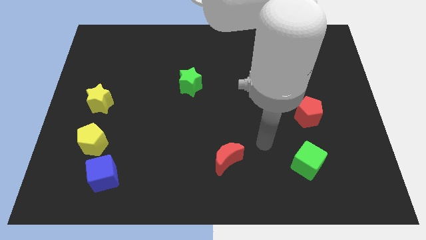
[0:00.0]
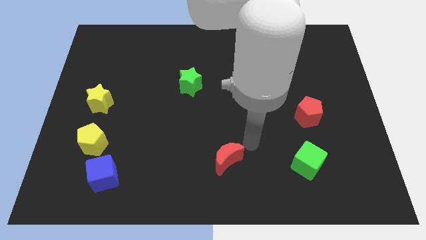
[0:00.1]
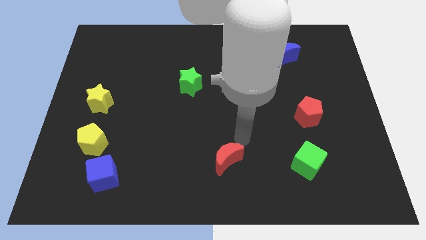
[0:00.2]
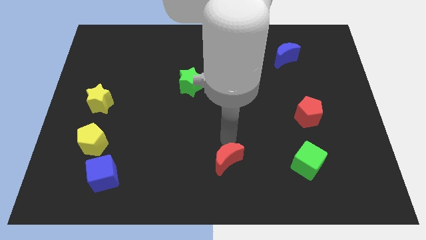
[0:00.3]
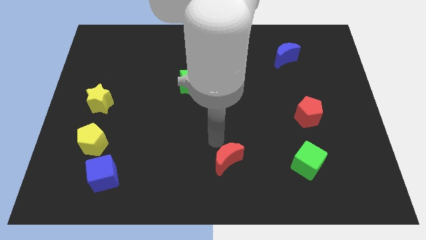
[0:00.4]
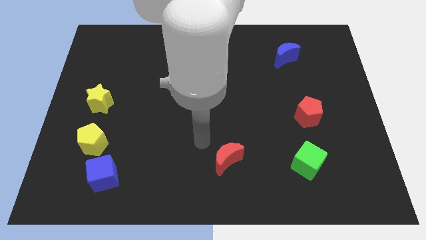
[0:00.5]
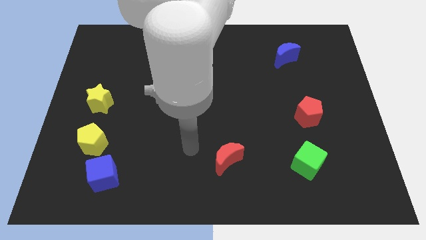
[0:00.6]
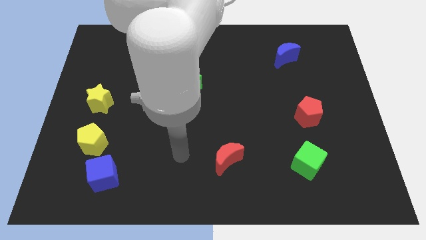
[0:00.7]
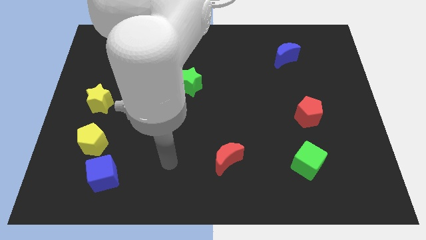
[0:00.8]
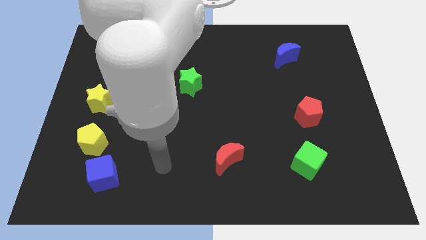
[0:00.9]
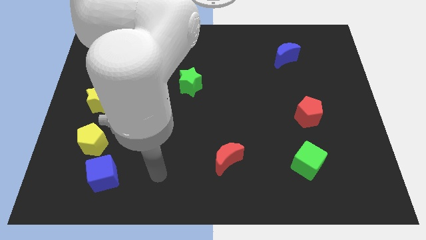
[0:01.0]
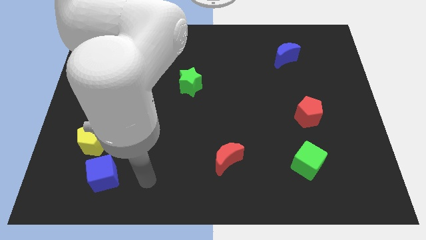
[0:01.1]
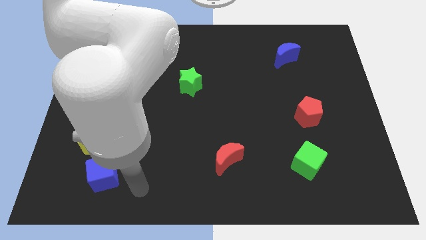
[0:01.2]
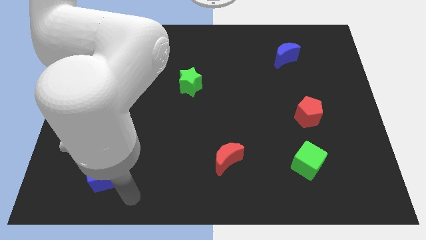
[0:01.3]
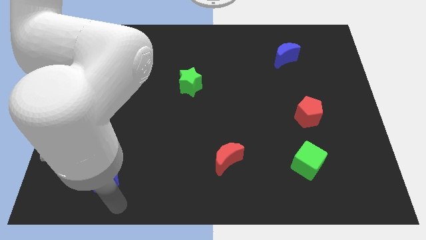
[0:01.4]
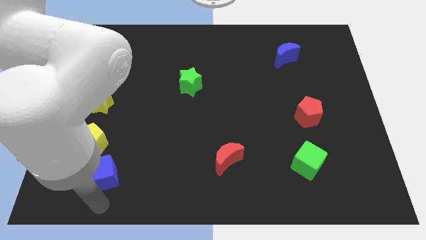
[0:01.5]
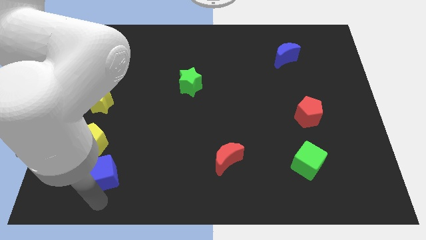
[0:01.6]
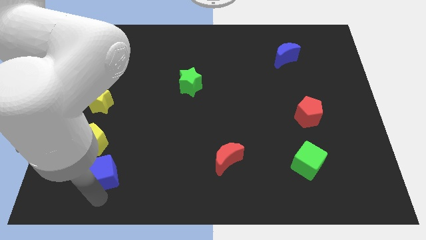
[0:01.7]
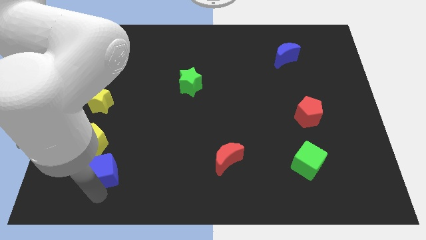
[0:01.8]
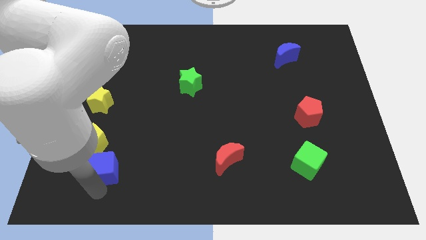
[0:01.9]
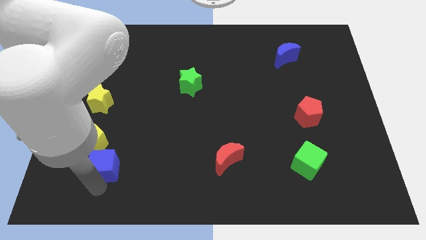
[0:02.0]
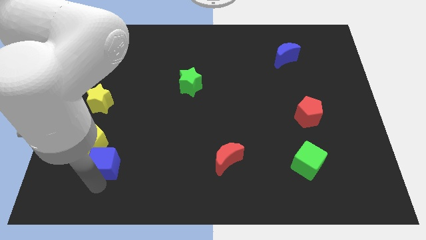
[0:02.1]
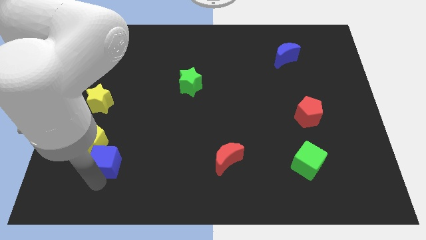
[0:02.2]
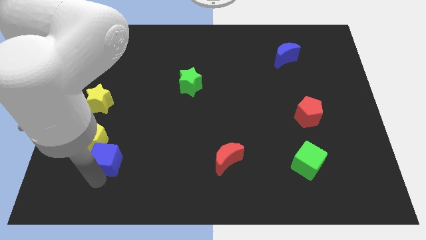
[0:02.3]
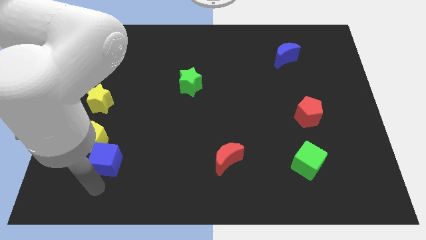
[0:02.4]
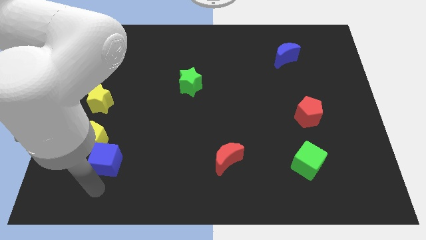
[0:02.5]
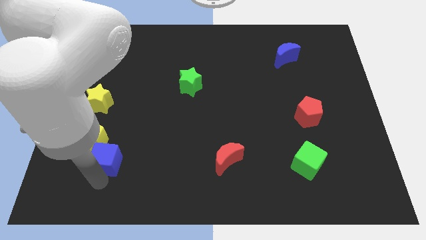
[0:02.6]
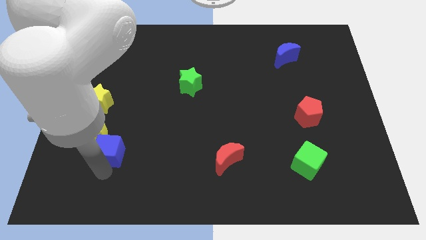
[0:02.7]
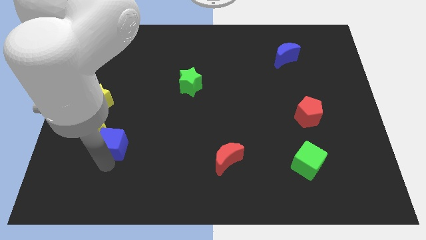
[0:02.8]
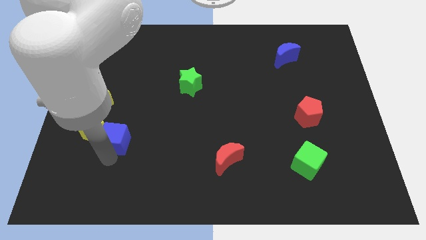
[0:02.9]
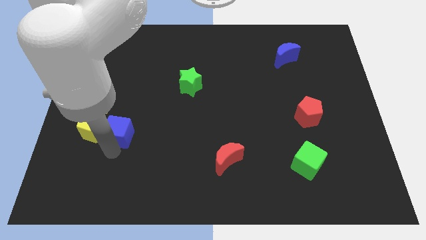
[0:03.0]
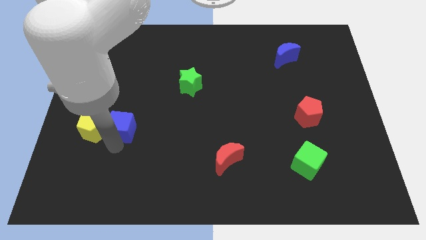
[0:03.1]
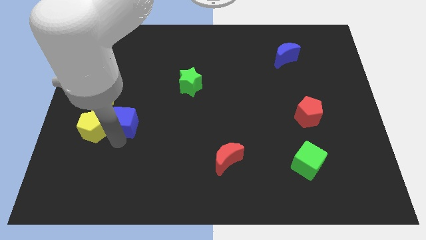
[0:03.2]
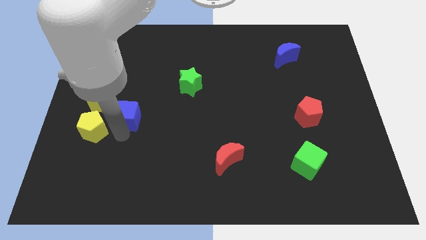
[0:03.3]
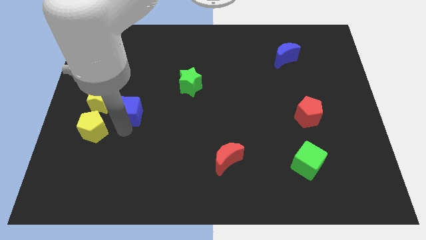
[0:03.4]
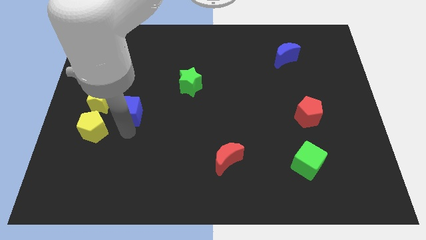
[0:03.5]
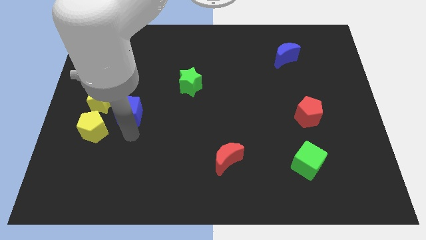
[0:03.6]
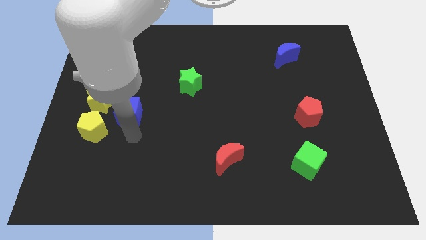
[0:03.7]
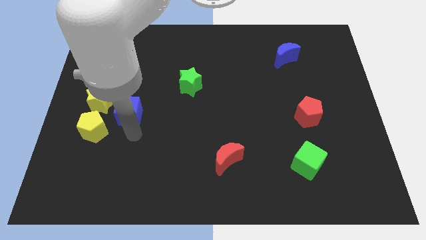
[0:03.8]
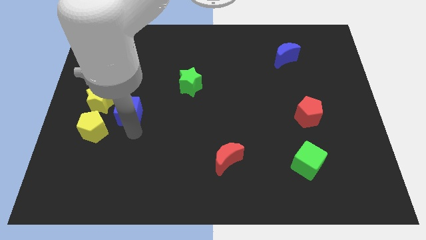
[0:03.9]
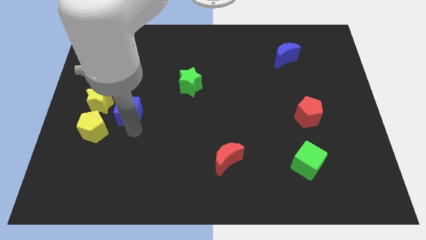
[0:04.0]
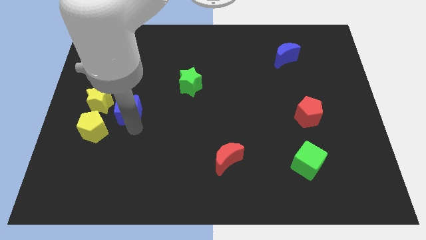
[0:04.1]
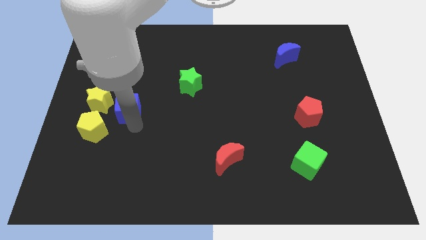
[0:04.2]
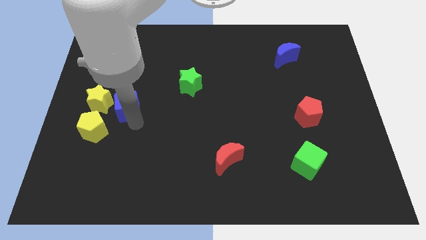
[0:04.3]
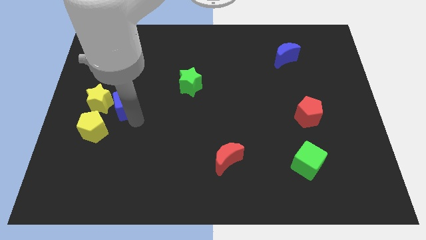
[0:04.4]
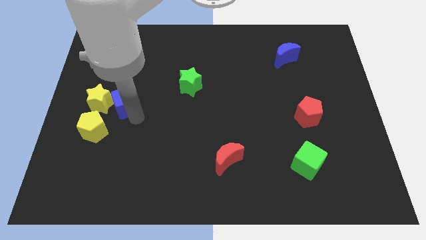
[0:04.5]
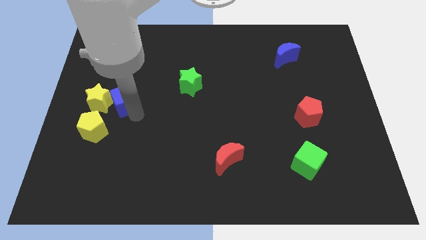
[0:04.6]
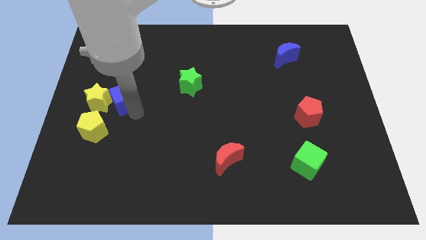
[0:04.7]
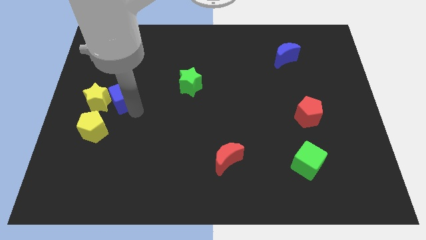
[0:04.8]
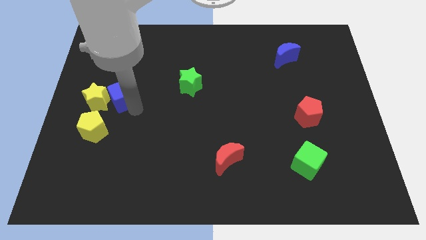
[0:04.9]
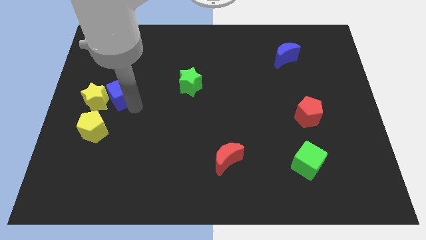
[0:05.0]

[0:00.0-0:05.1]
push the blue cube to the top of the yellow pentagon

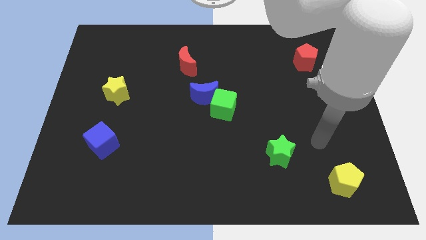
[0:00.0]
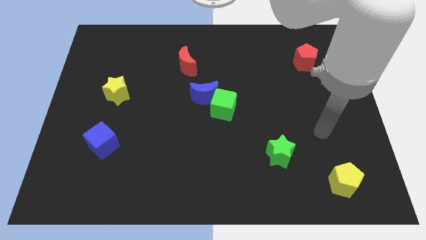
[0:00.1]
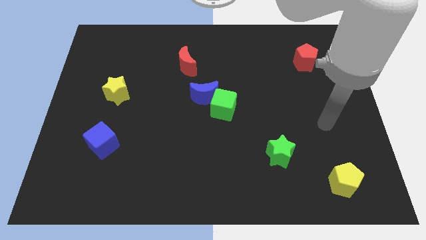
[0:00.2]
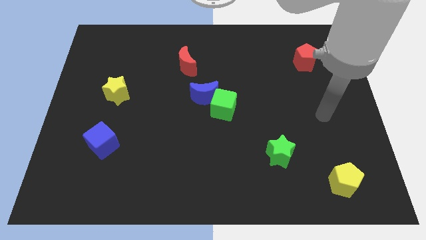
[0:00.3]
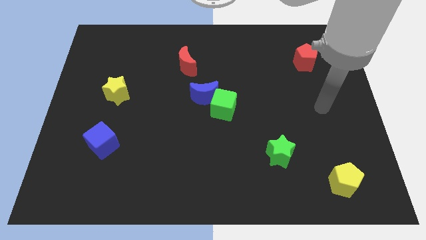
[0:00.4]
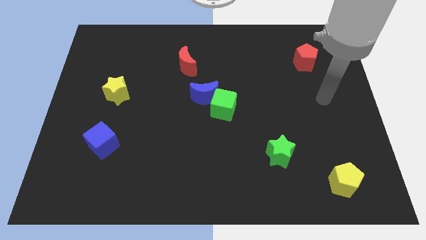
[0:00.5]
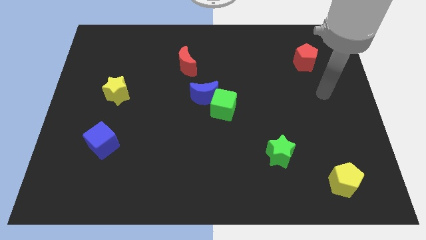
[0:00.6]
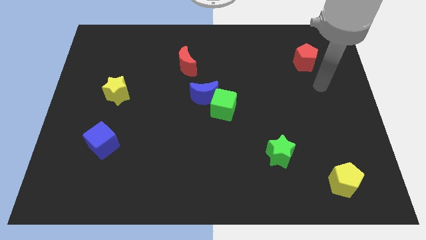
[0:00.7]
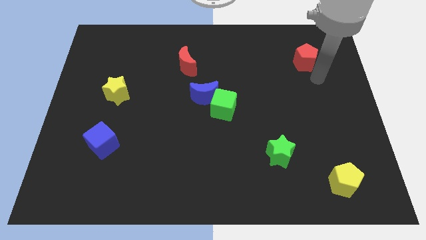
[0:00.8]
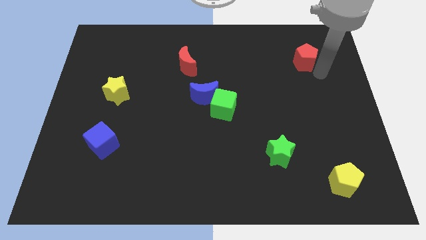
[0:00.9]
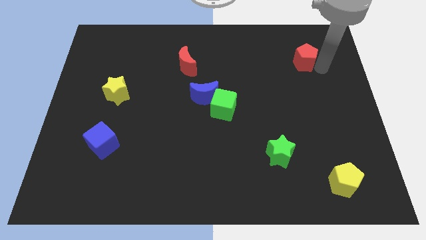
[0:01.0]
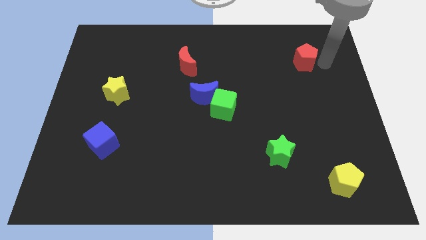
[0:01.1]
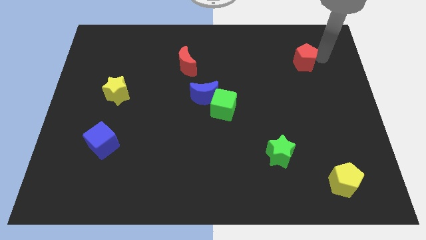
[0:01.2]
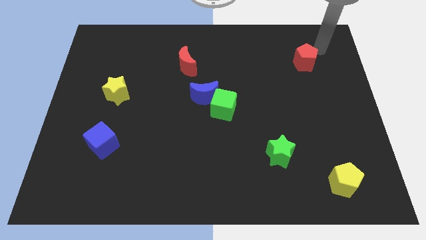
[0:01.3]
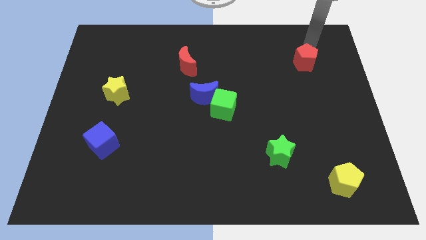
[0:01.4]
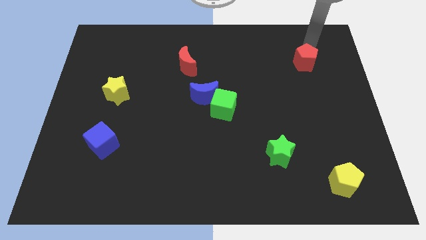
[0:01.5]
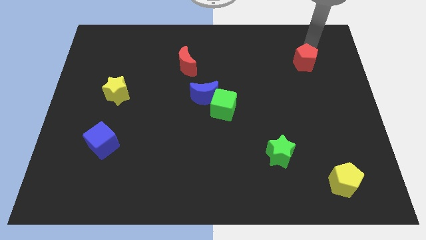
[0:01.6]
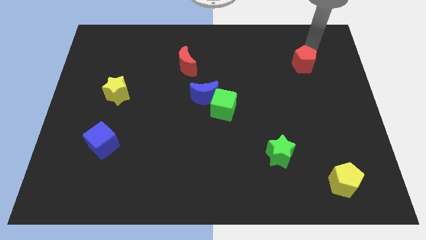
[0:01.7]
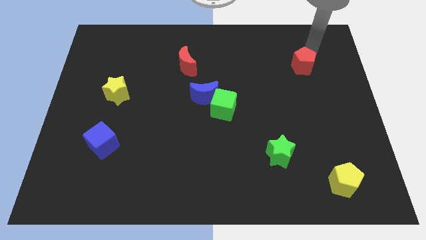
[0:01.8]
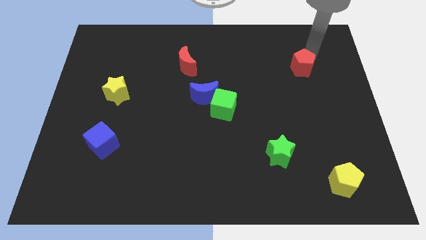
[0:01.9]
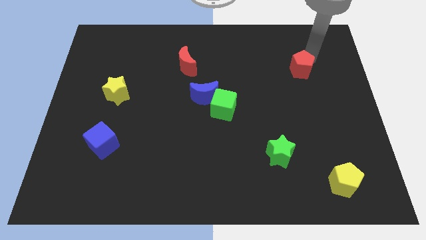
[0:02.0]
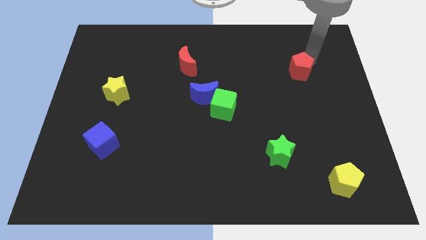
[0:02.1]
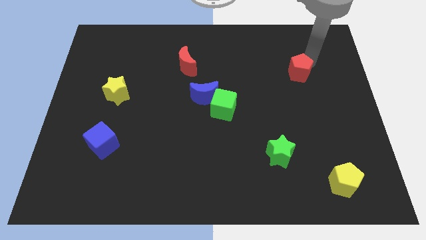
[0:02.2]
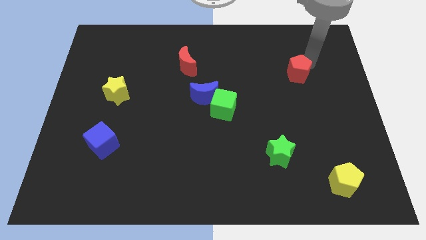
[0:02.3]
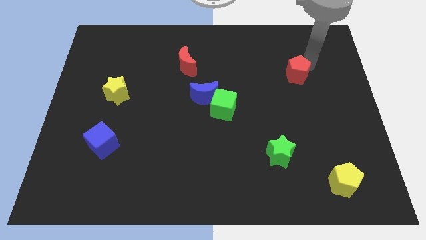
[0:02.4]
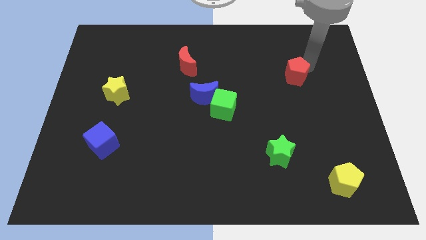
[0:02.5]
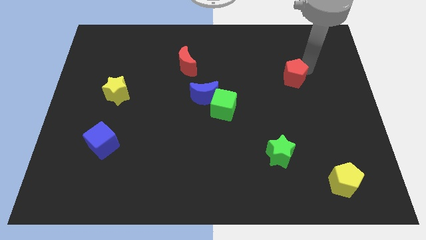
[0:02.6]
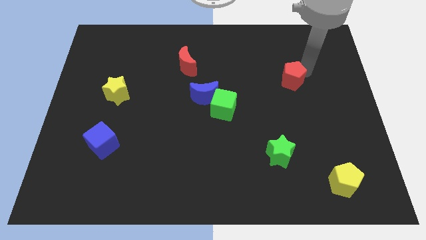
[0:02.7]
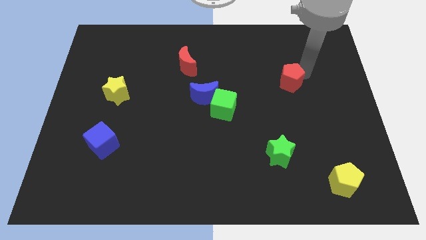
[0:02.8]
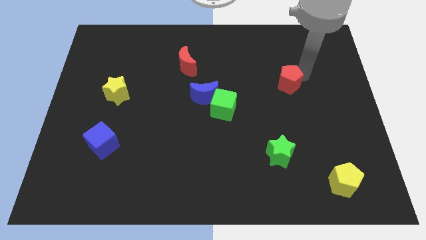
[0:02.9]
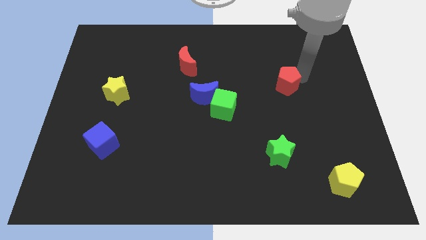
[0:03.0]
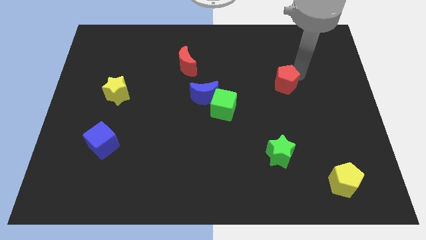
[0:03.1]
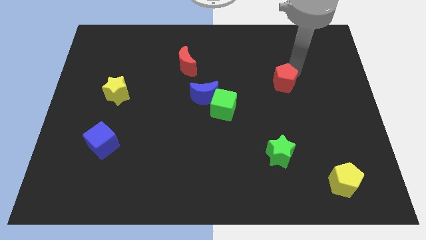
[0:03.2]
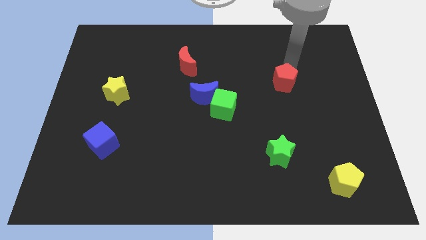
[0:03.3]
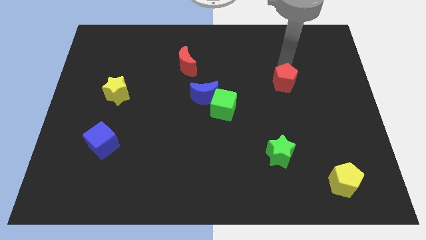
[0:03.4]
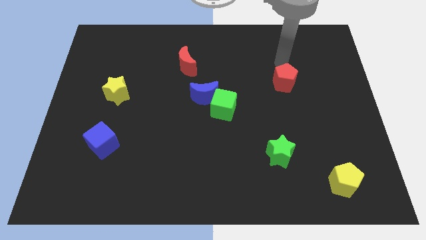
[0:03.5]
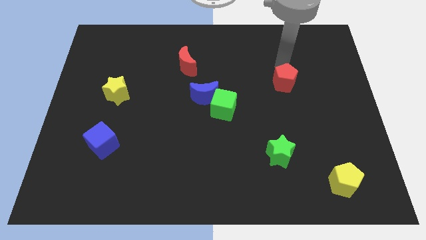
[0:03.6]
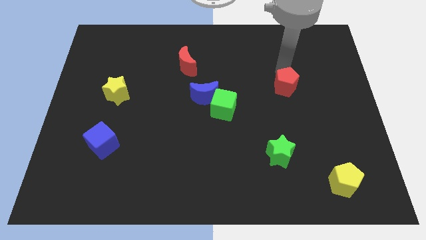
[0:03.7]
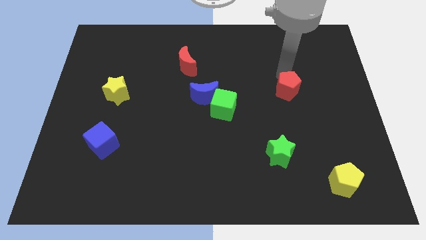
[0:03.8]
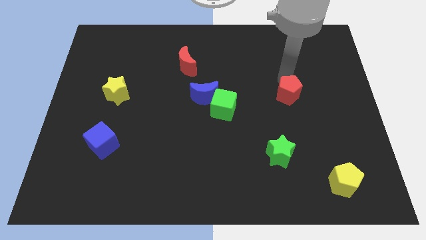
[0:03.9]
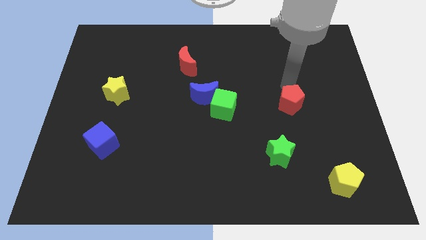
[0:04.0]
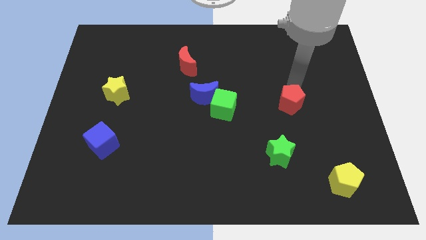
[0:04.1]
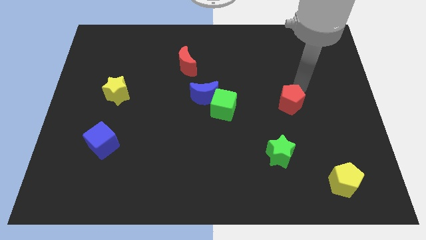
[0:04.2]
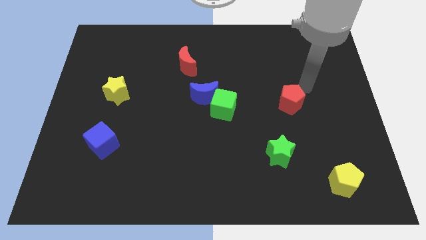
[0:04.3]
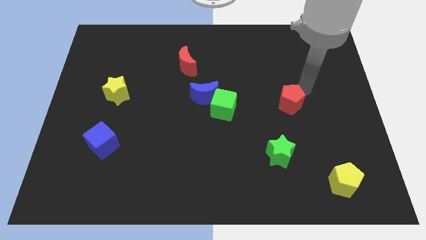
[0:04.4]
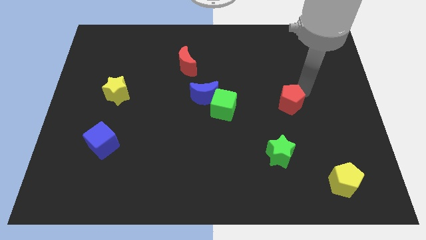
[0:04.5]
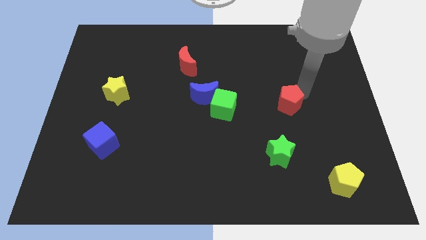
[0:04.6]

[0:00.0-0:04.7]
put the red pentagon to the top of the green star
